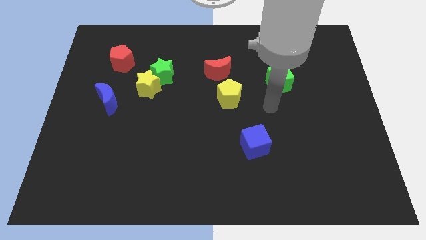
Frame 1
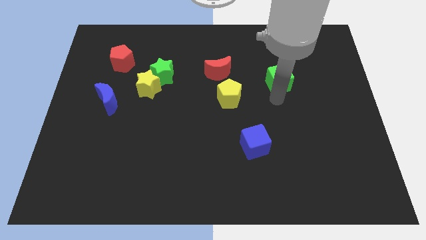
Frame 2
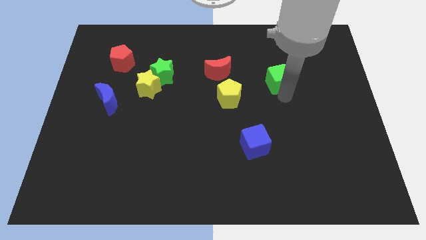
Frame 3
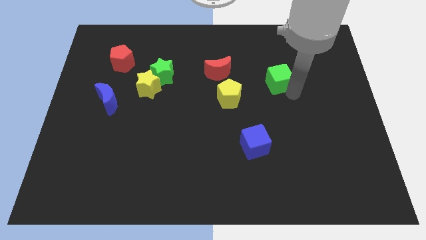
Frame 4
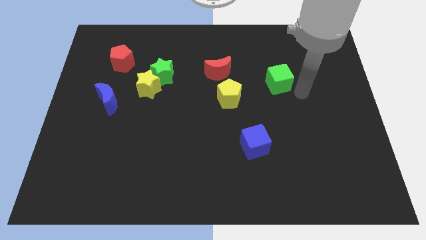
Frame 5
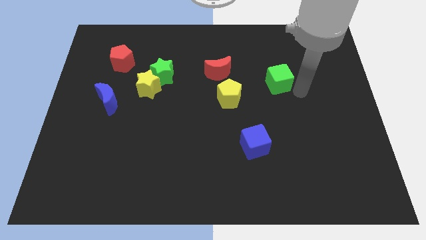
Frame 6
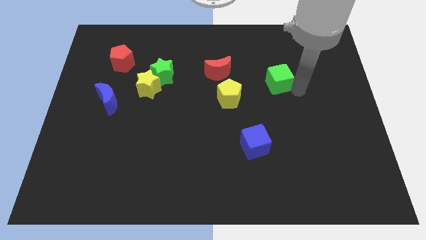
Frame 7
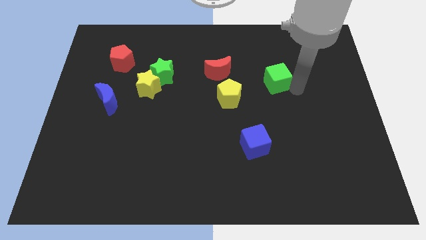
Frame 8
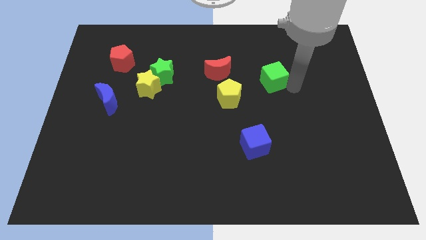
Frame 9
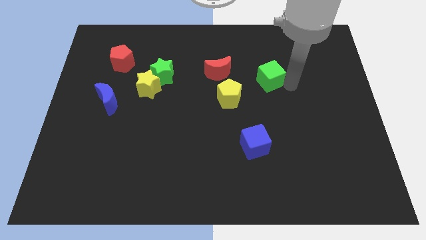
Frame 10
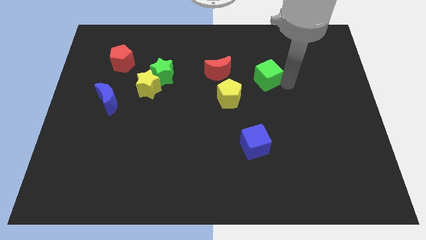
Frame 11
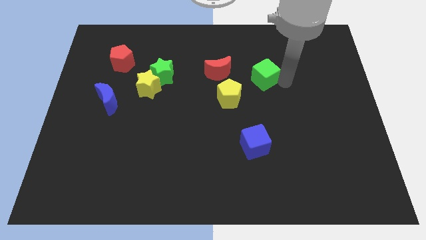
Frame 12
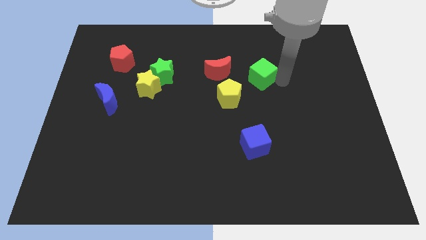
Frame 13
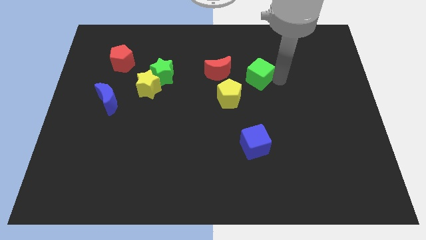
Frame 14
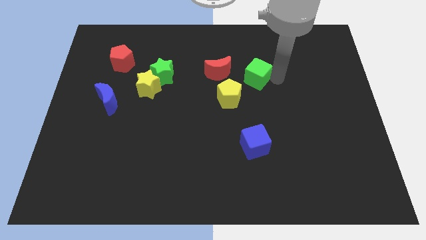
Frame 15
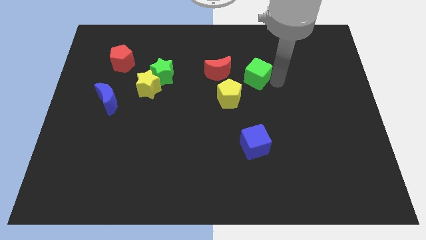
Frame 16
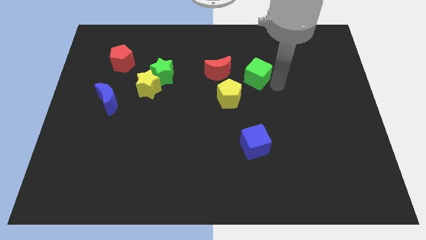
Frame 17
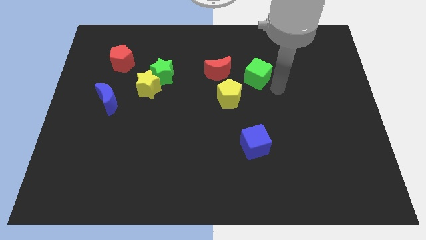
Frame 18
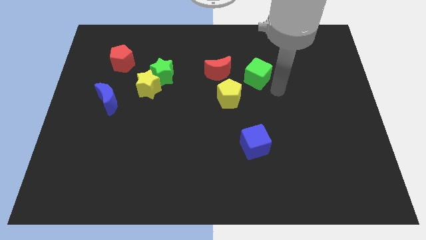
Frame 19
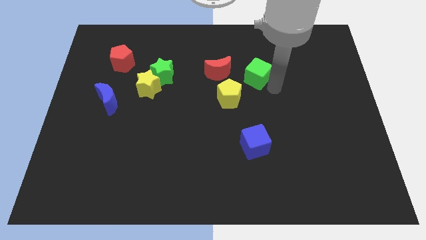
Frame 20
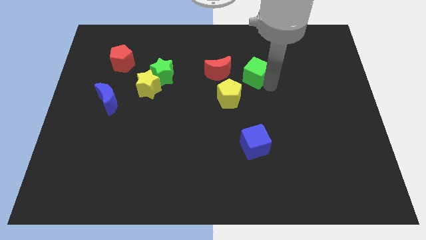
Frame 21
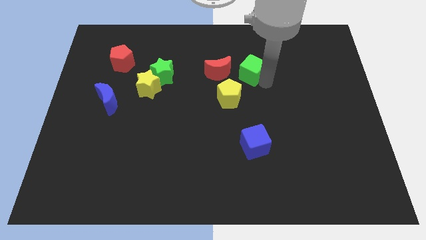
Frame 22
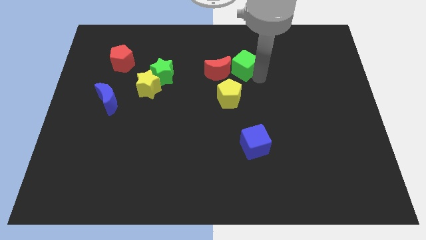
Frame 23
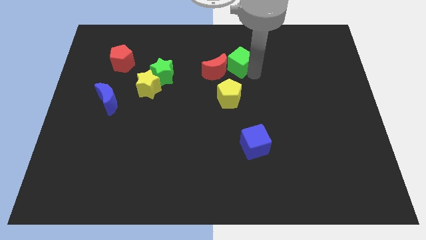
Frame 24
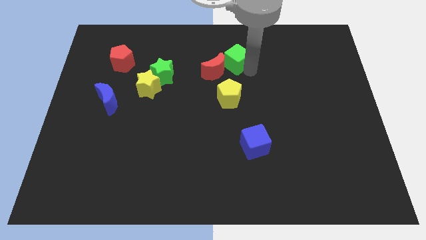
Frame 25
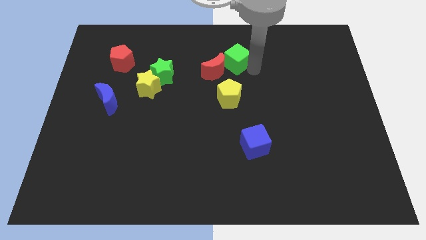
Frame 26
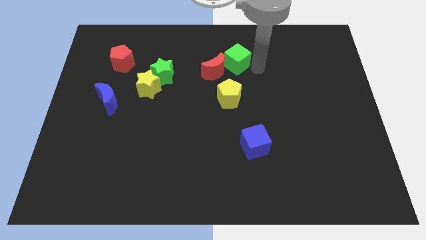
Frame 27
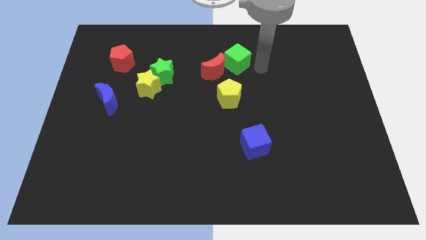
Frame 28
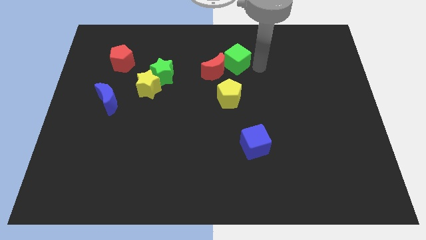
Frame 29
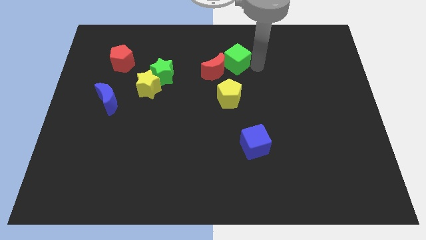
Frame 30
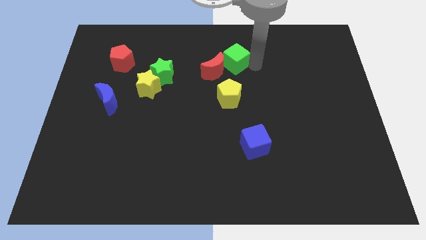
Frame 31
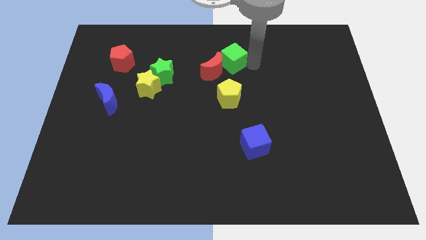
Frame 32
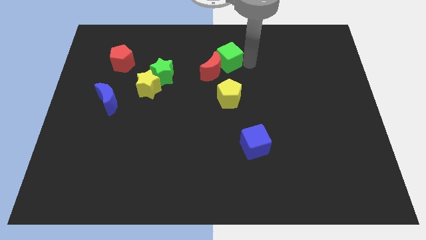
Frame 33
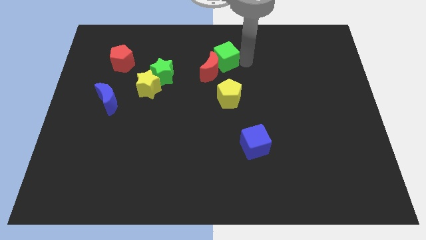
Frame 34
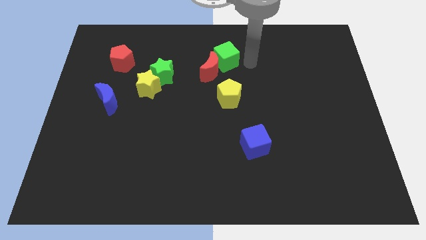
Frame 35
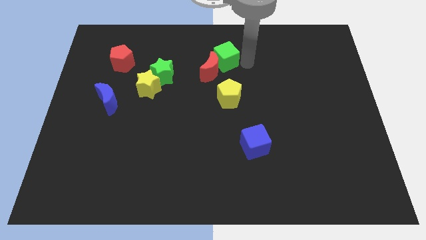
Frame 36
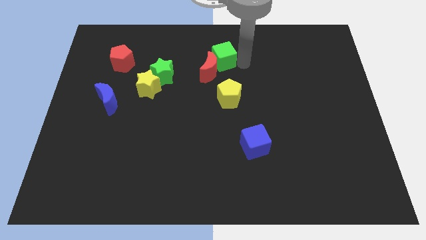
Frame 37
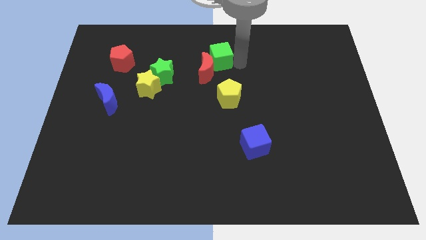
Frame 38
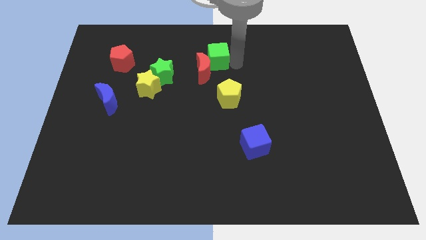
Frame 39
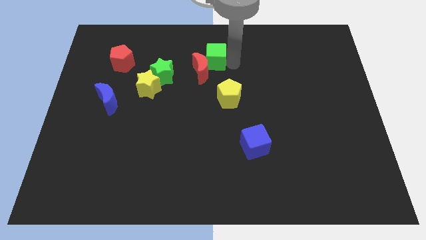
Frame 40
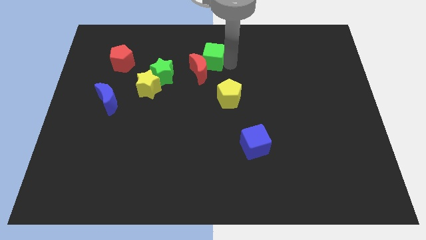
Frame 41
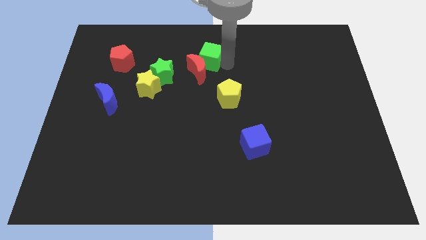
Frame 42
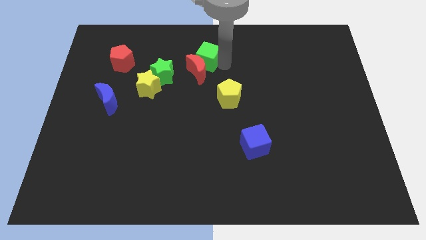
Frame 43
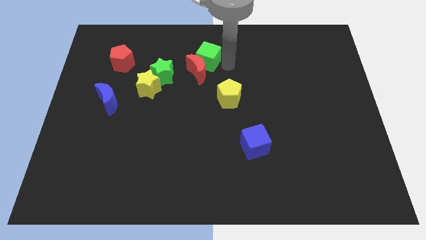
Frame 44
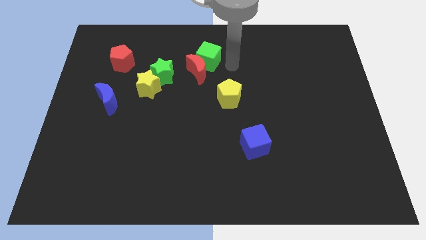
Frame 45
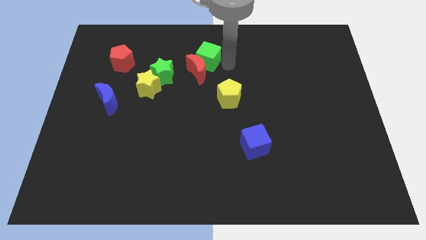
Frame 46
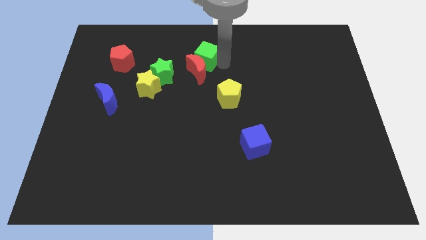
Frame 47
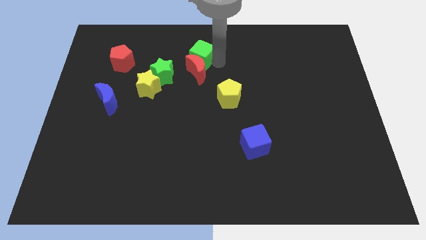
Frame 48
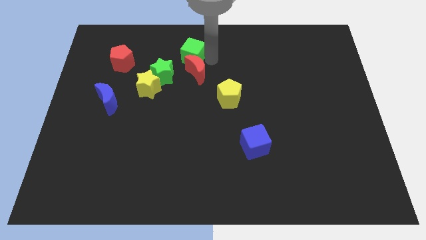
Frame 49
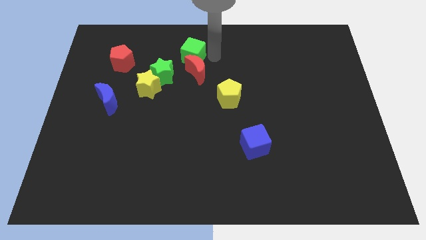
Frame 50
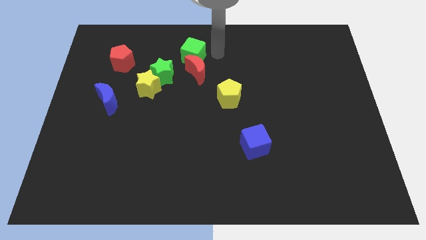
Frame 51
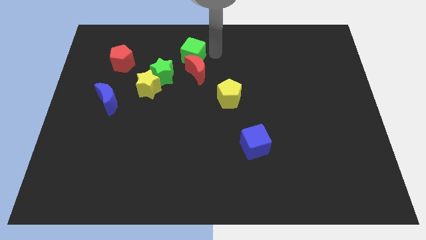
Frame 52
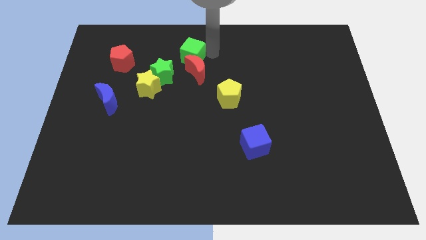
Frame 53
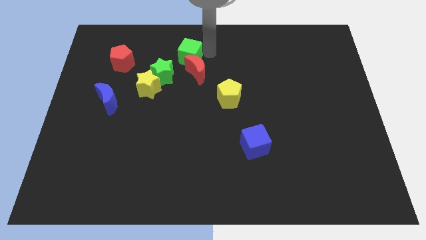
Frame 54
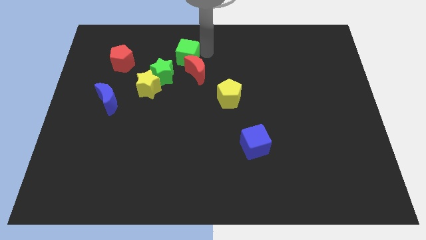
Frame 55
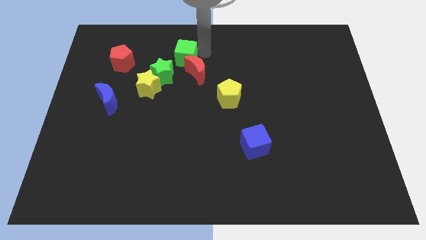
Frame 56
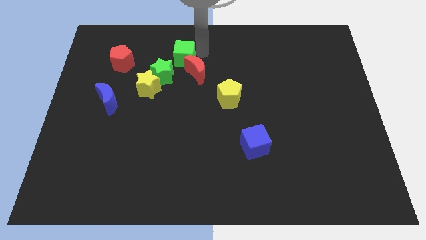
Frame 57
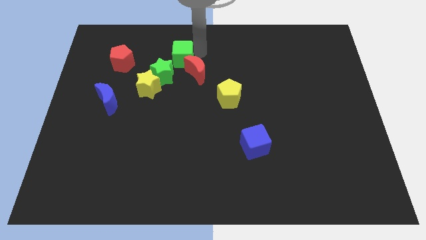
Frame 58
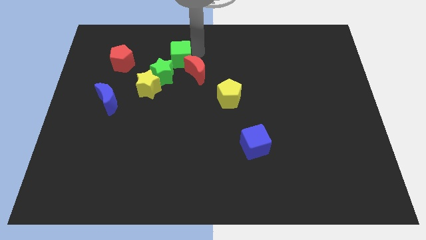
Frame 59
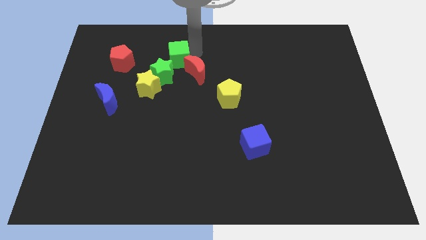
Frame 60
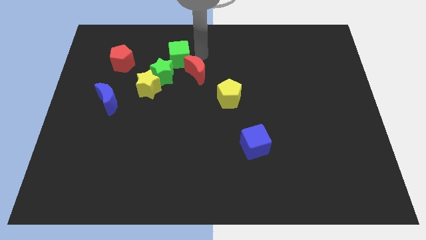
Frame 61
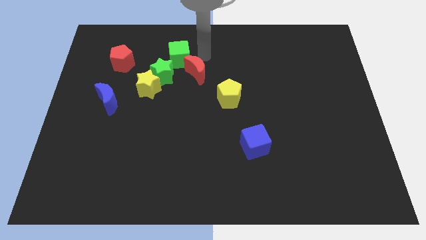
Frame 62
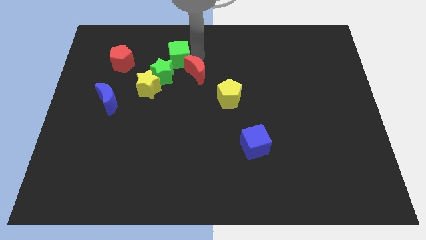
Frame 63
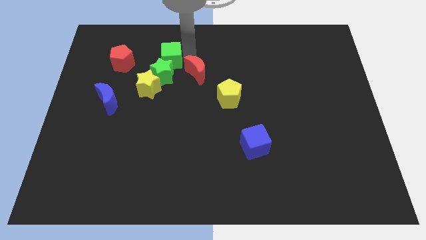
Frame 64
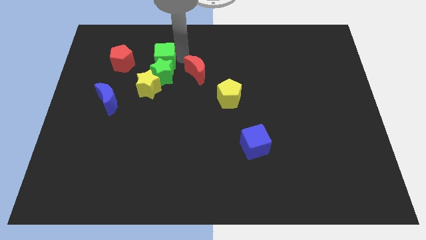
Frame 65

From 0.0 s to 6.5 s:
push the green cube to the top left of the green star

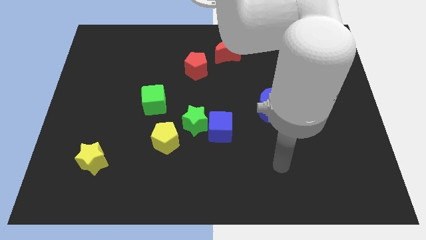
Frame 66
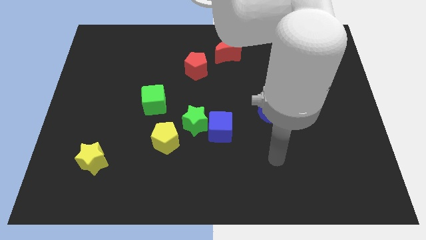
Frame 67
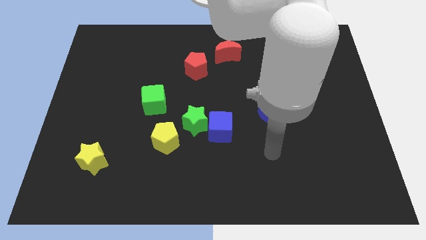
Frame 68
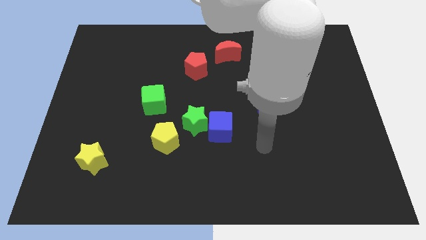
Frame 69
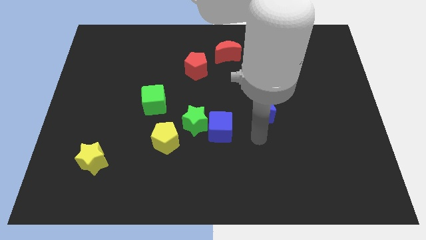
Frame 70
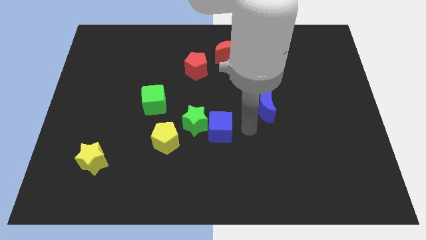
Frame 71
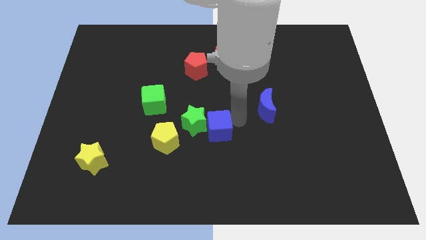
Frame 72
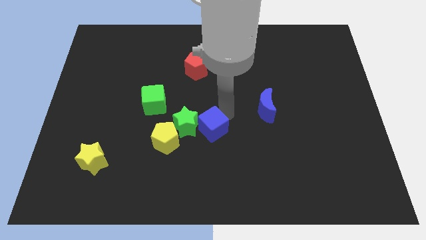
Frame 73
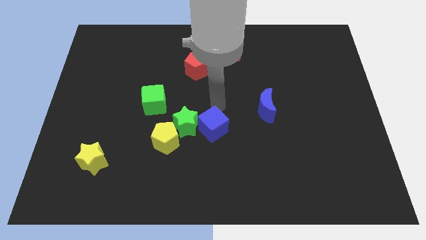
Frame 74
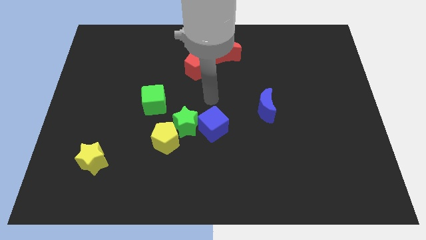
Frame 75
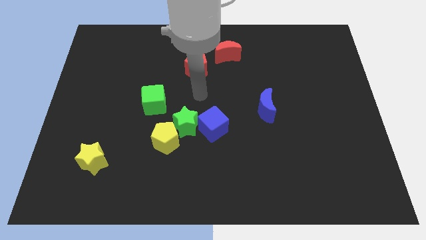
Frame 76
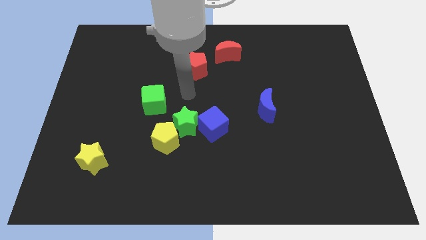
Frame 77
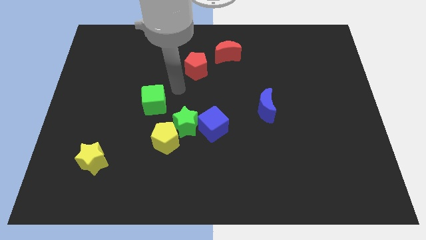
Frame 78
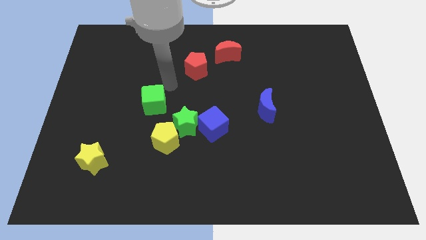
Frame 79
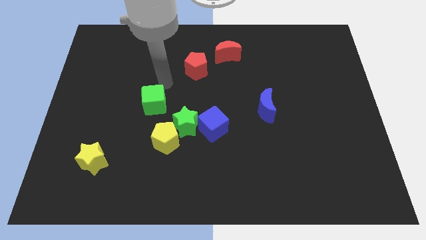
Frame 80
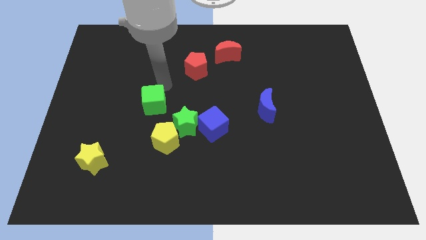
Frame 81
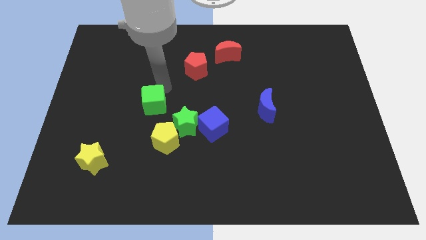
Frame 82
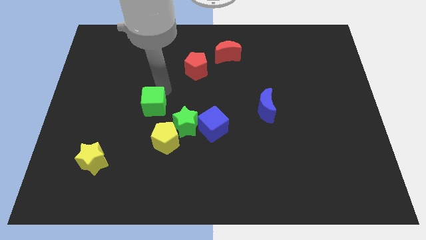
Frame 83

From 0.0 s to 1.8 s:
slide the green cube to the top left side of the yellow pentagon
